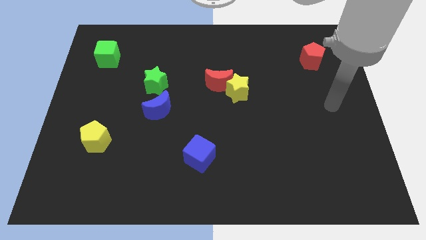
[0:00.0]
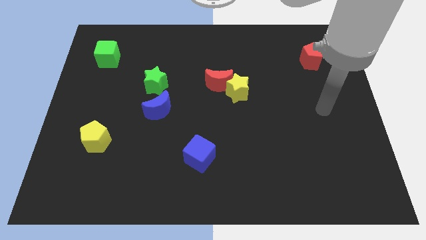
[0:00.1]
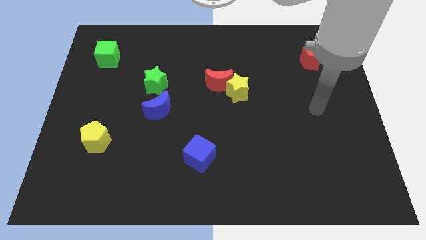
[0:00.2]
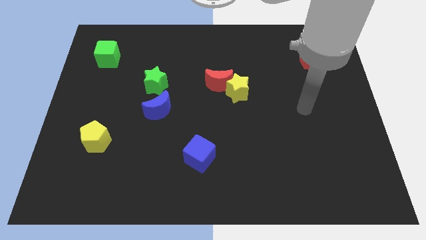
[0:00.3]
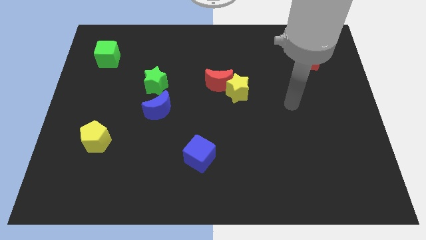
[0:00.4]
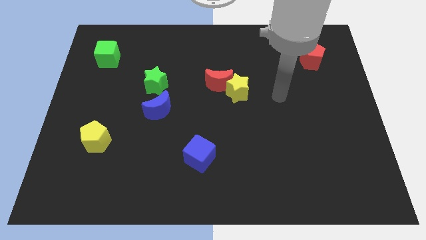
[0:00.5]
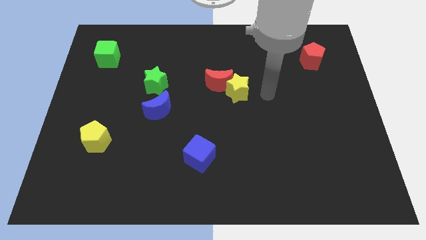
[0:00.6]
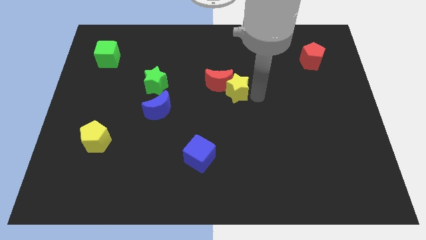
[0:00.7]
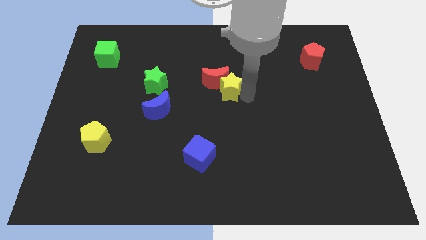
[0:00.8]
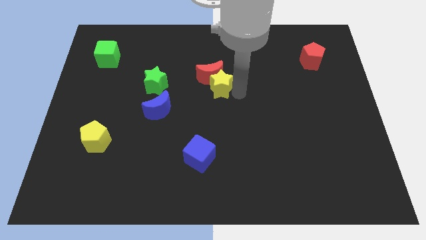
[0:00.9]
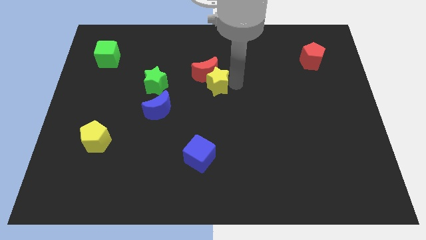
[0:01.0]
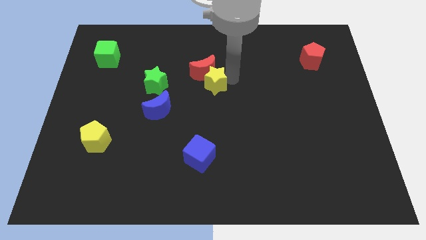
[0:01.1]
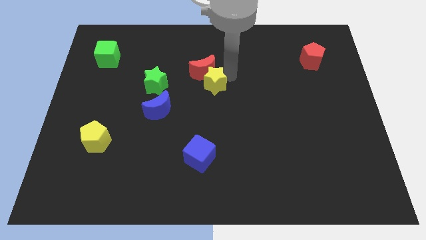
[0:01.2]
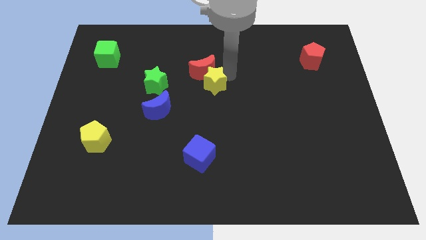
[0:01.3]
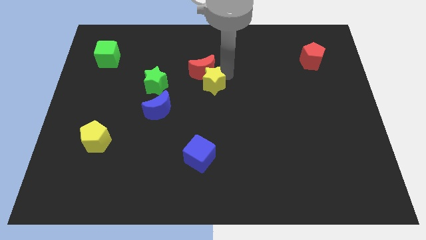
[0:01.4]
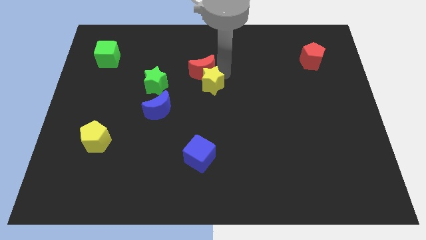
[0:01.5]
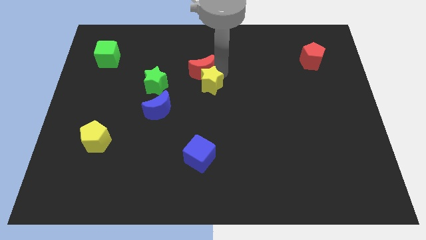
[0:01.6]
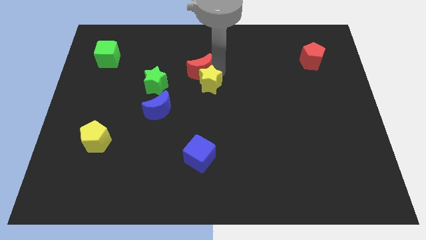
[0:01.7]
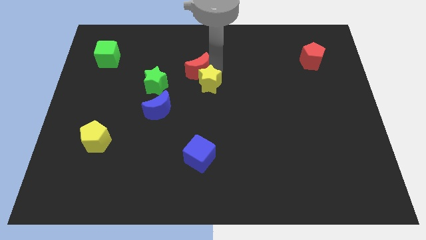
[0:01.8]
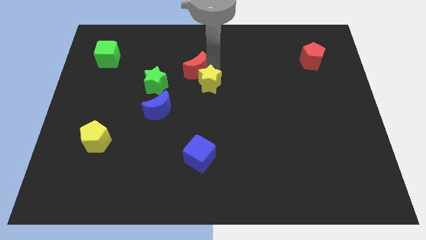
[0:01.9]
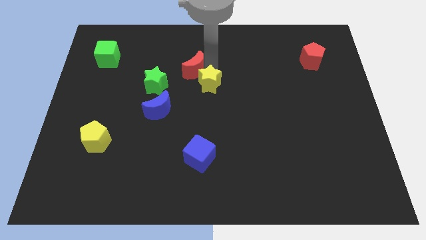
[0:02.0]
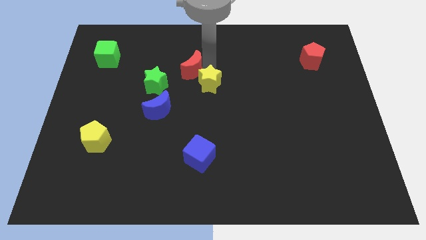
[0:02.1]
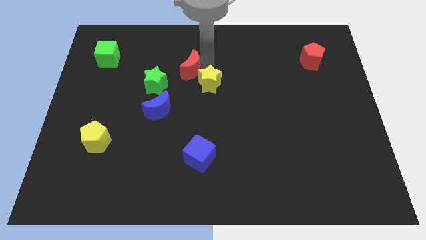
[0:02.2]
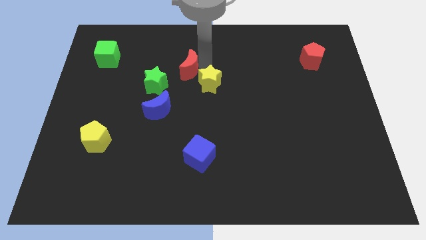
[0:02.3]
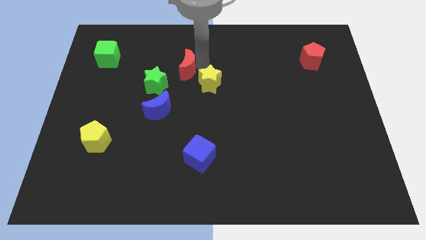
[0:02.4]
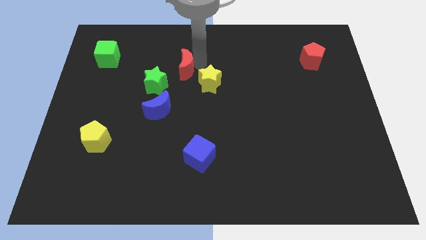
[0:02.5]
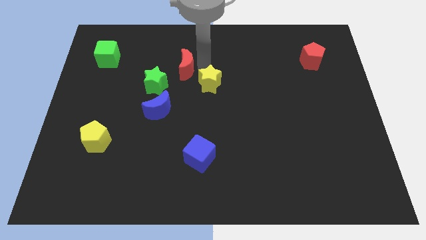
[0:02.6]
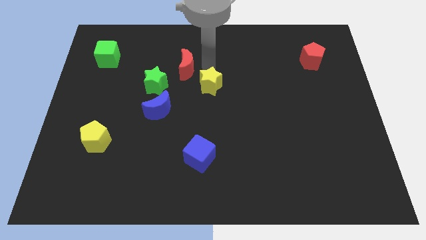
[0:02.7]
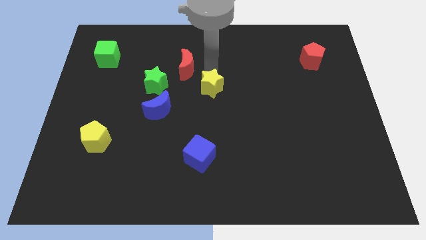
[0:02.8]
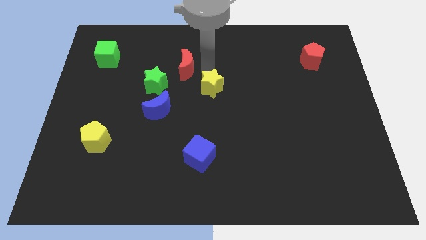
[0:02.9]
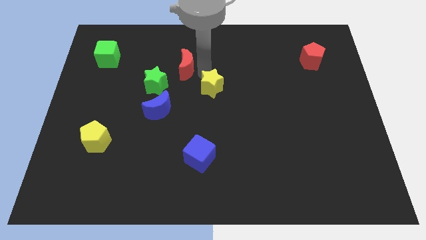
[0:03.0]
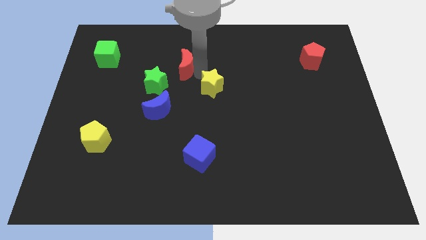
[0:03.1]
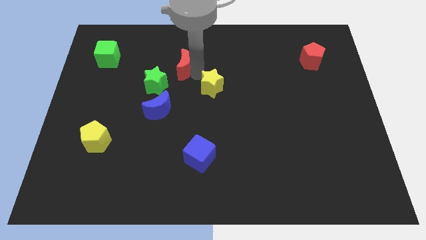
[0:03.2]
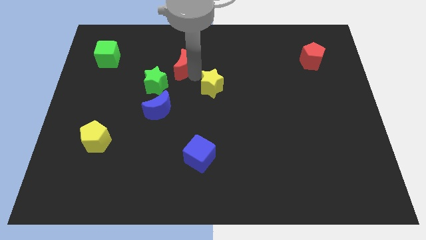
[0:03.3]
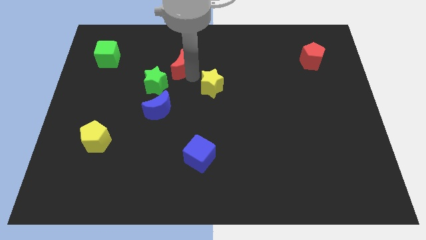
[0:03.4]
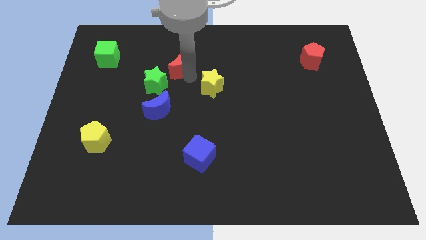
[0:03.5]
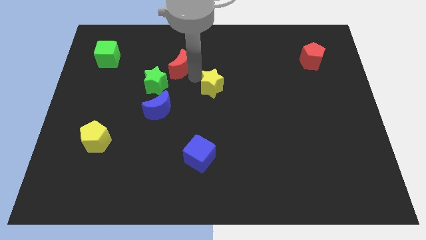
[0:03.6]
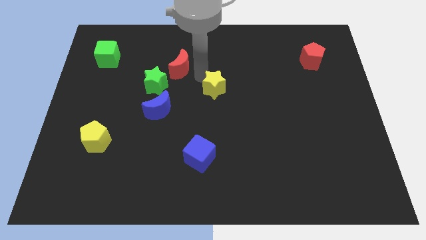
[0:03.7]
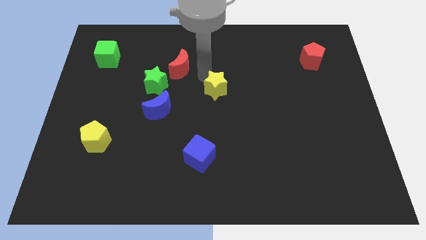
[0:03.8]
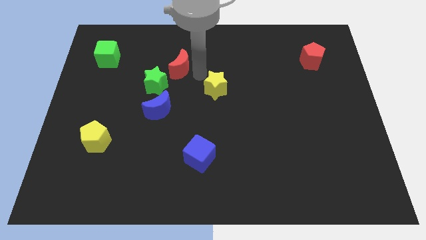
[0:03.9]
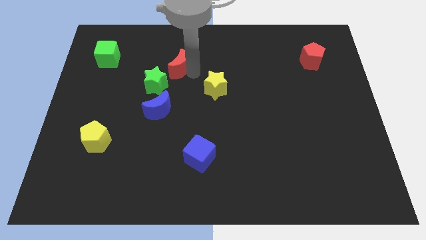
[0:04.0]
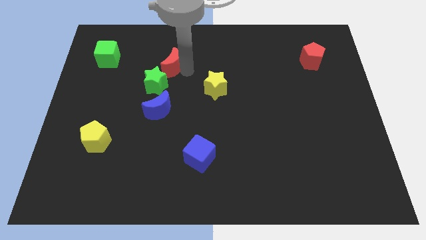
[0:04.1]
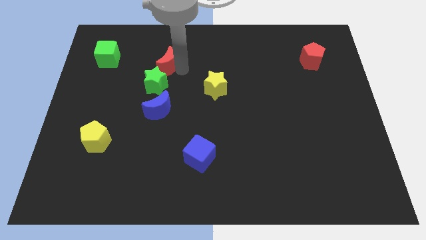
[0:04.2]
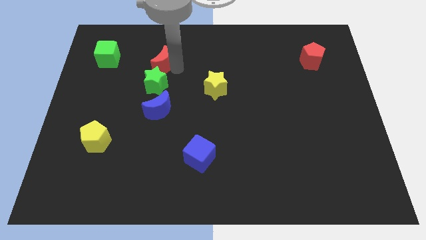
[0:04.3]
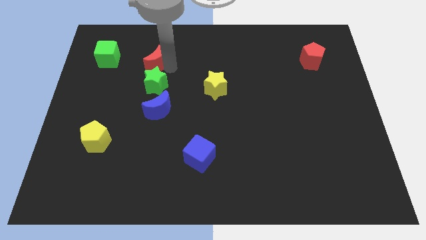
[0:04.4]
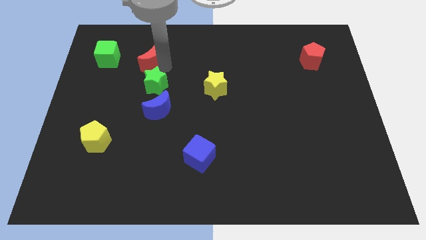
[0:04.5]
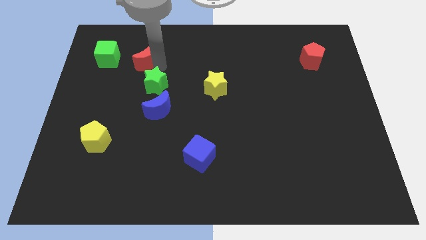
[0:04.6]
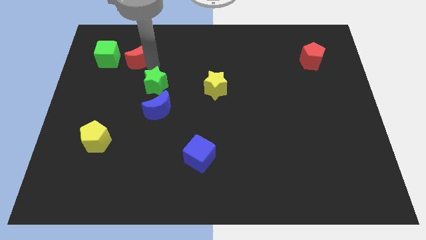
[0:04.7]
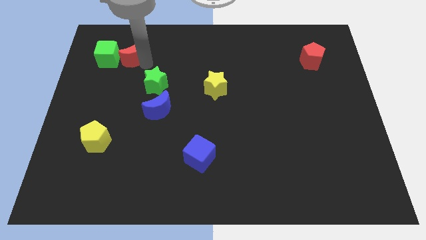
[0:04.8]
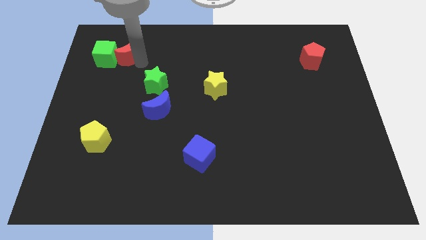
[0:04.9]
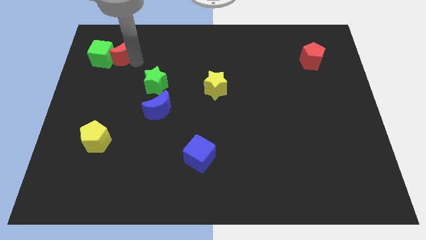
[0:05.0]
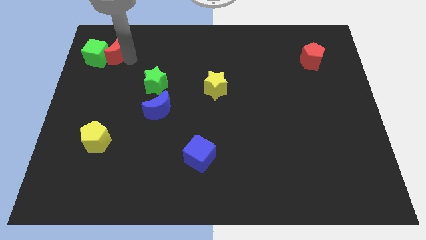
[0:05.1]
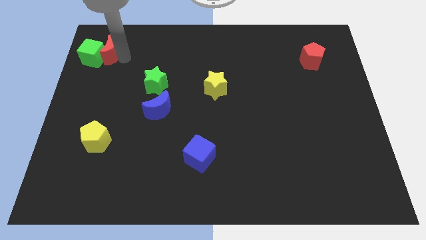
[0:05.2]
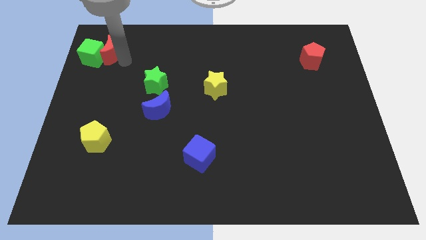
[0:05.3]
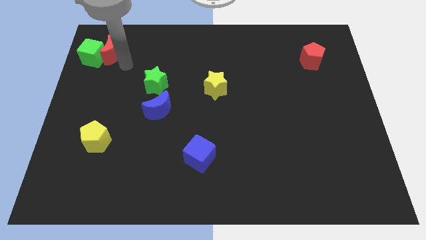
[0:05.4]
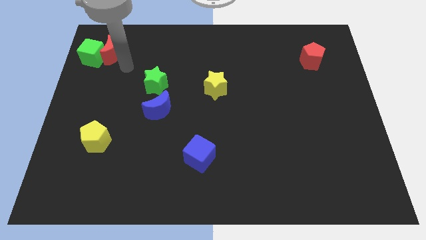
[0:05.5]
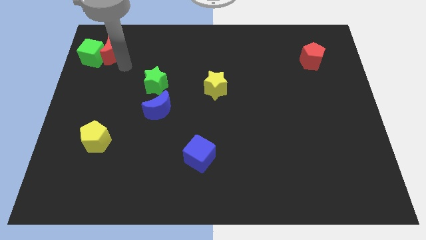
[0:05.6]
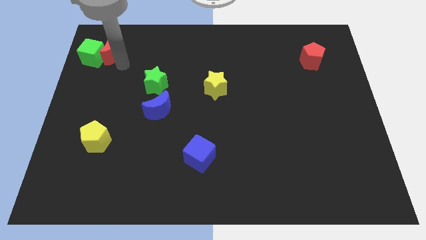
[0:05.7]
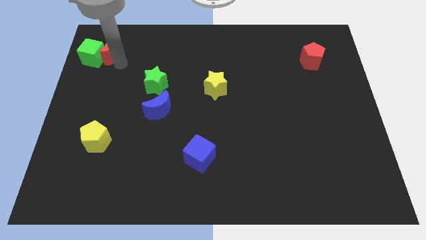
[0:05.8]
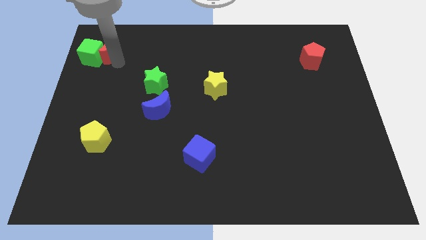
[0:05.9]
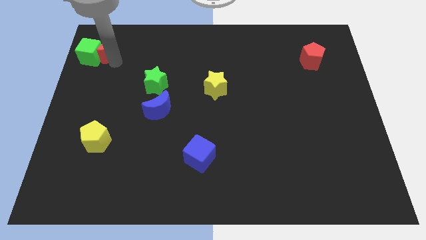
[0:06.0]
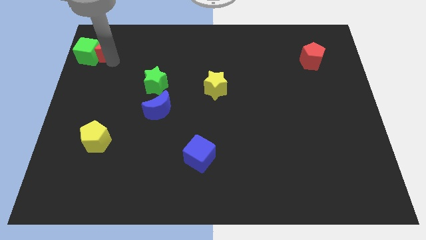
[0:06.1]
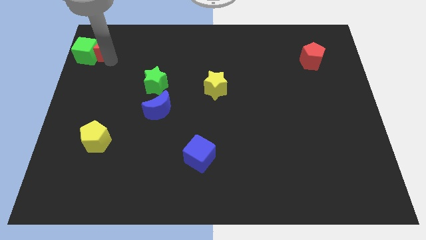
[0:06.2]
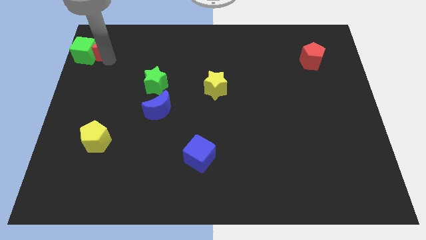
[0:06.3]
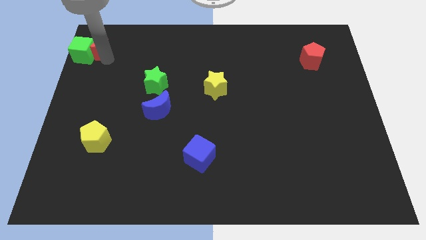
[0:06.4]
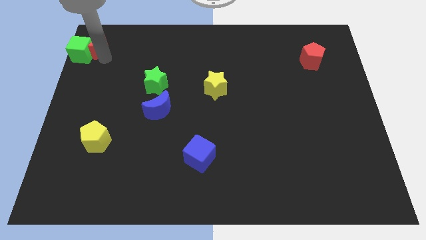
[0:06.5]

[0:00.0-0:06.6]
slide the red moon to the upper left corner

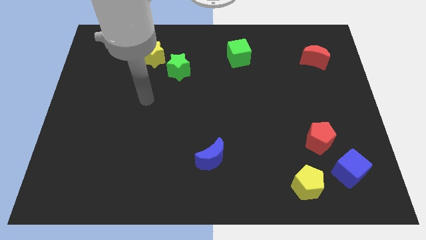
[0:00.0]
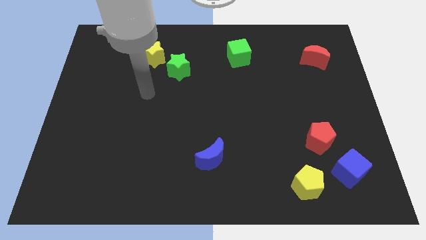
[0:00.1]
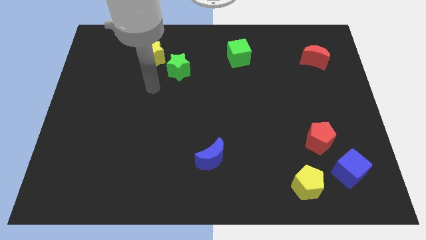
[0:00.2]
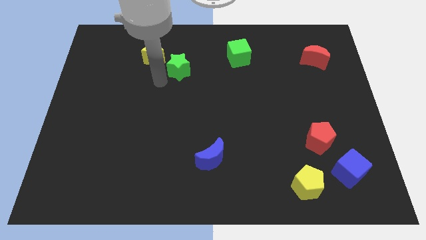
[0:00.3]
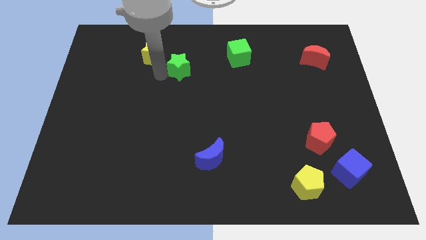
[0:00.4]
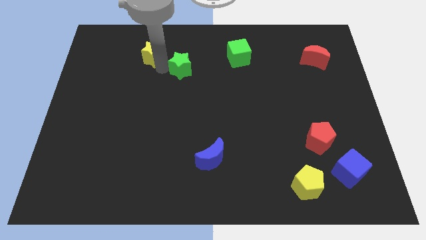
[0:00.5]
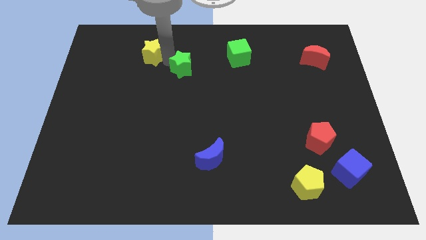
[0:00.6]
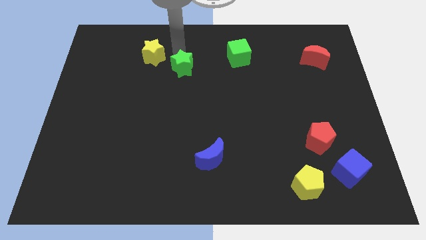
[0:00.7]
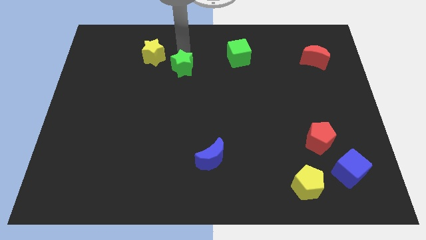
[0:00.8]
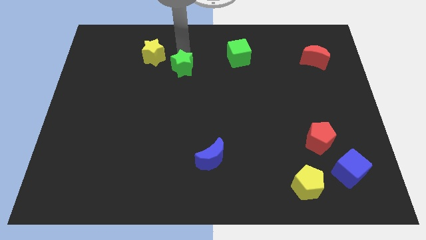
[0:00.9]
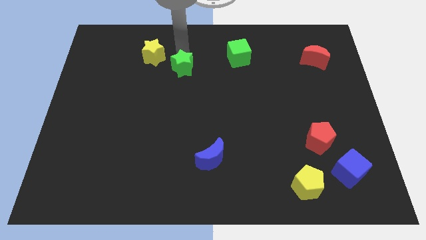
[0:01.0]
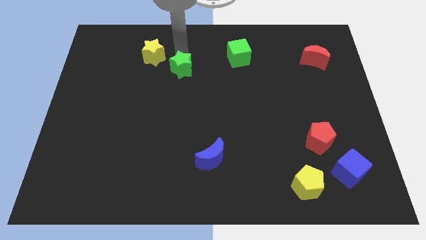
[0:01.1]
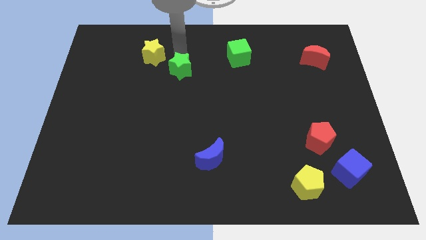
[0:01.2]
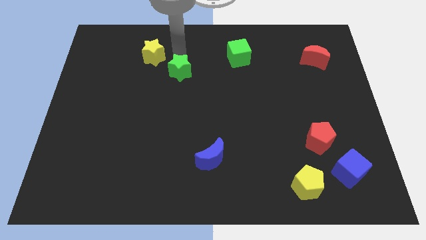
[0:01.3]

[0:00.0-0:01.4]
put the green star to the middle
